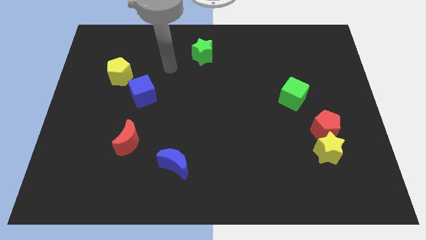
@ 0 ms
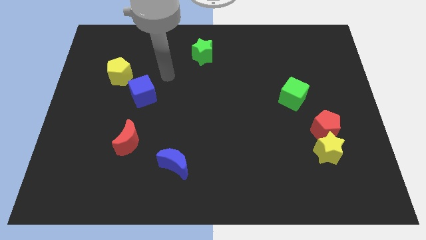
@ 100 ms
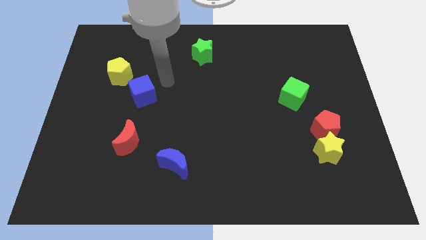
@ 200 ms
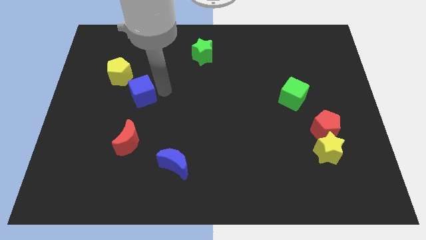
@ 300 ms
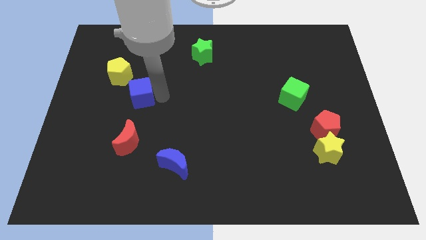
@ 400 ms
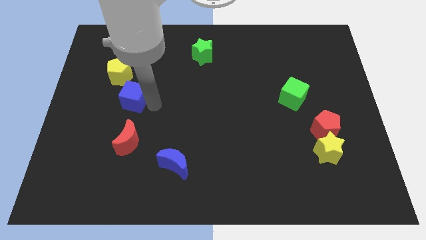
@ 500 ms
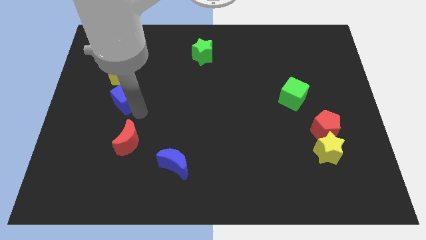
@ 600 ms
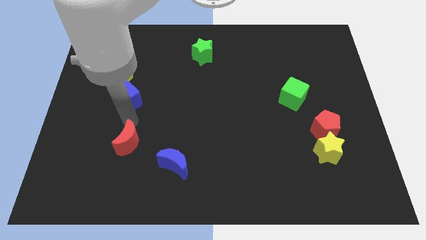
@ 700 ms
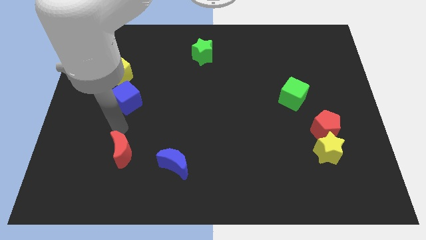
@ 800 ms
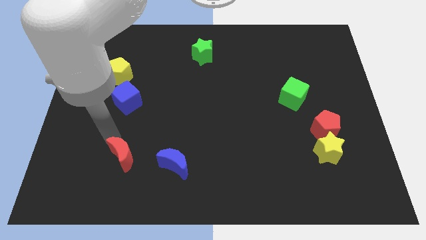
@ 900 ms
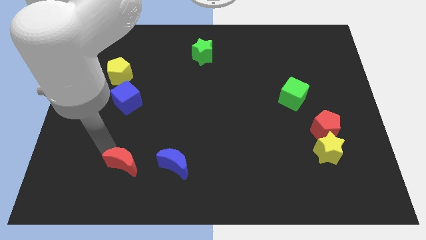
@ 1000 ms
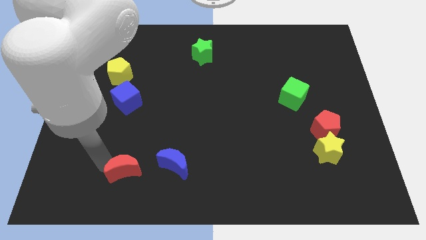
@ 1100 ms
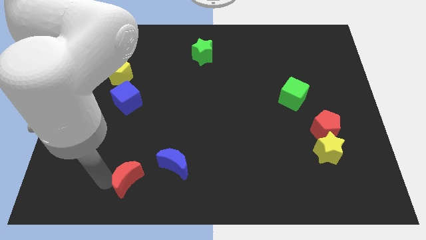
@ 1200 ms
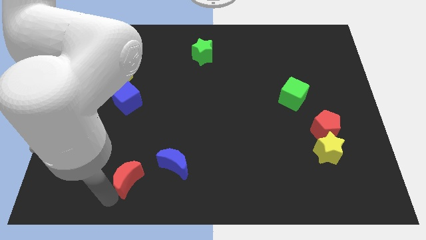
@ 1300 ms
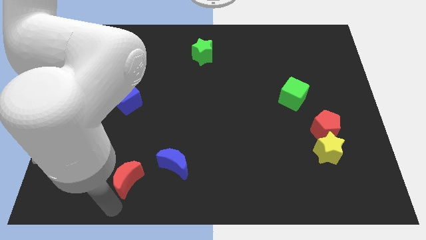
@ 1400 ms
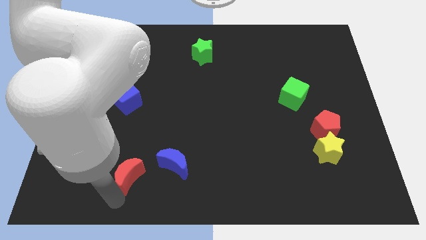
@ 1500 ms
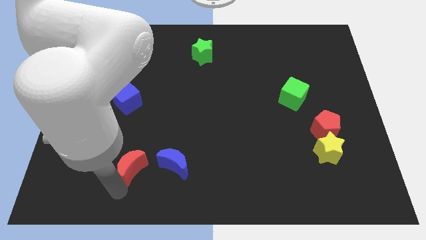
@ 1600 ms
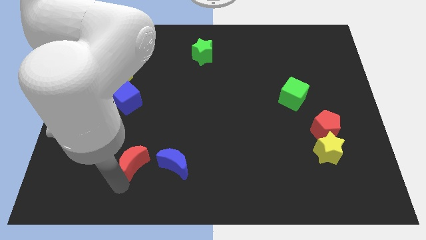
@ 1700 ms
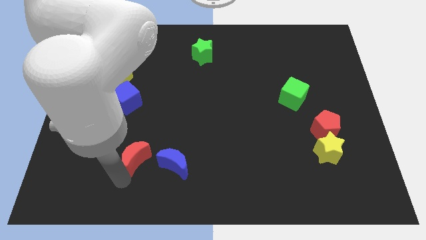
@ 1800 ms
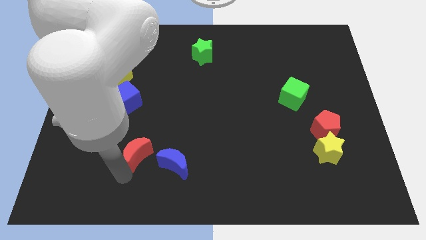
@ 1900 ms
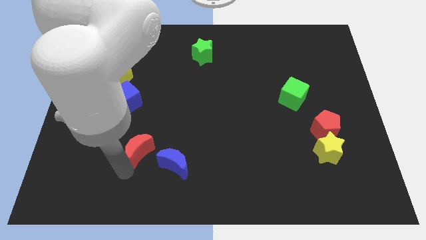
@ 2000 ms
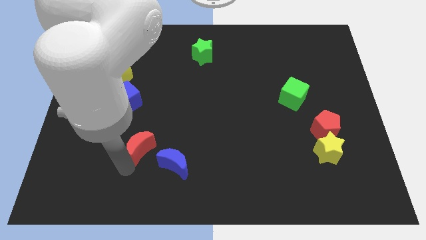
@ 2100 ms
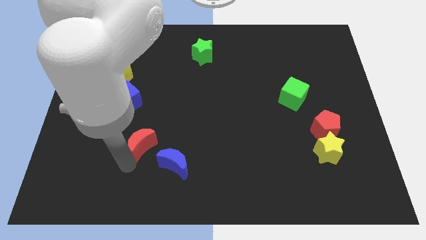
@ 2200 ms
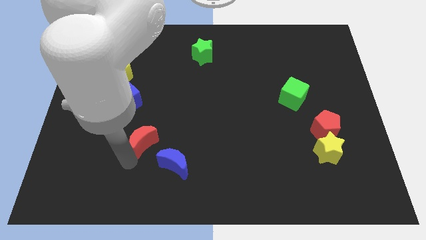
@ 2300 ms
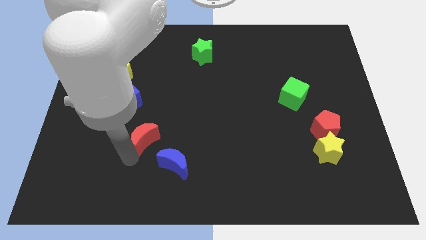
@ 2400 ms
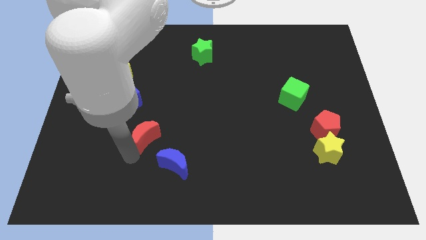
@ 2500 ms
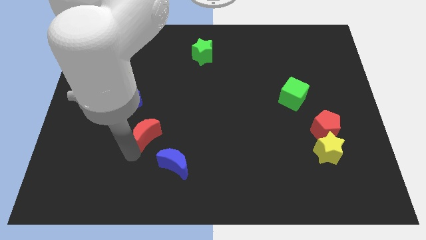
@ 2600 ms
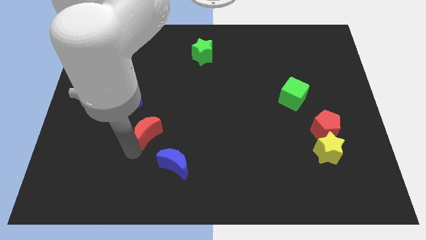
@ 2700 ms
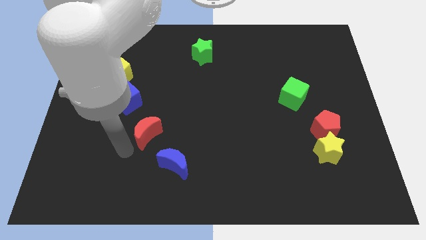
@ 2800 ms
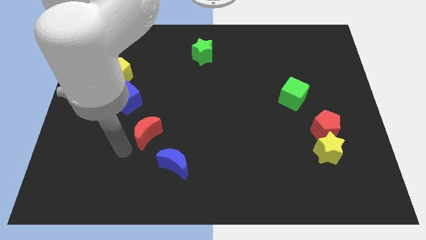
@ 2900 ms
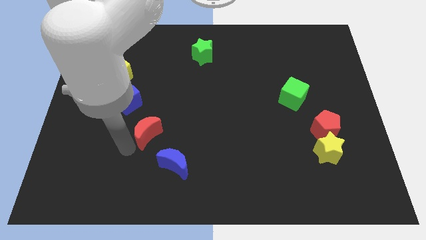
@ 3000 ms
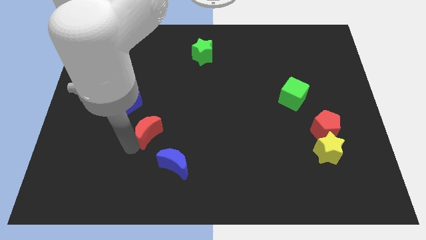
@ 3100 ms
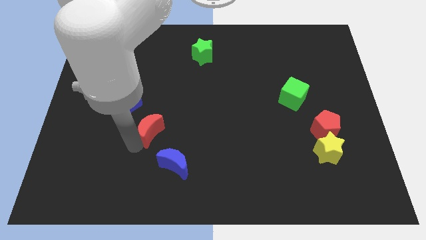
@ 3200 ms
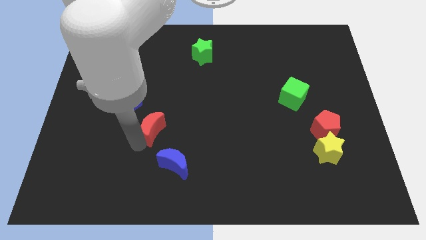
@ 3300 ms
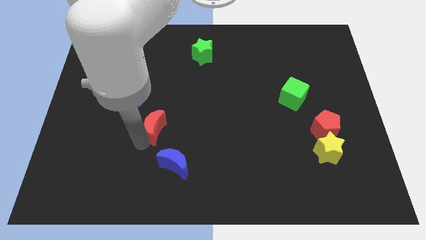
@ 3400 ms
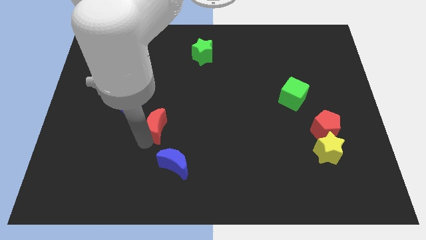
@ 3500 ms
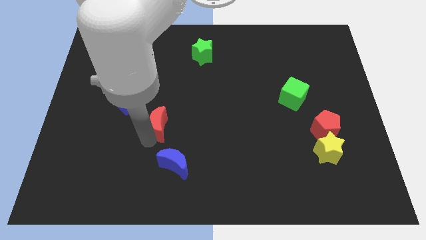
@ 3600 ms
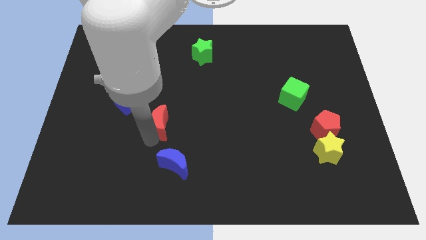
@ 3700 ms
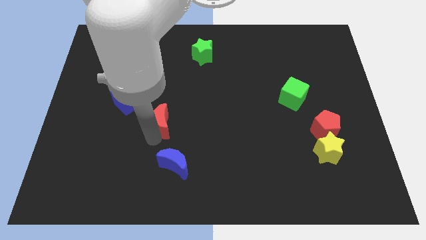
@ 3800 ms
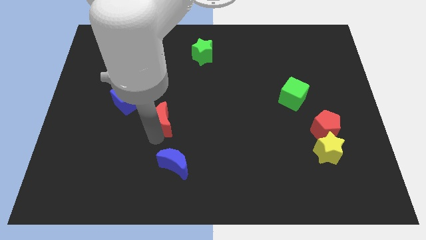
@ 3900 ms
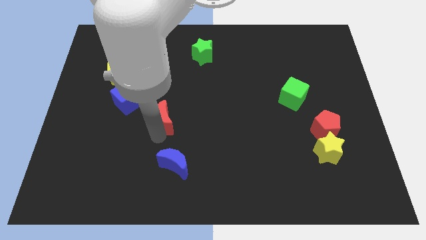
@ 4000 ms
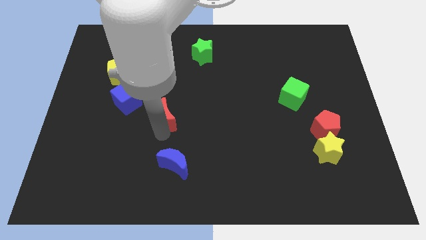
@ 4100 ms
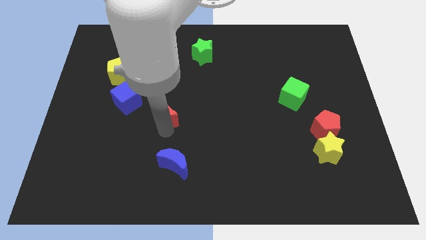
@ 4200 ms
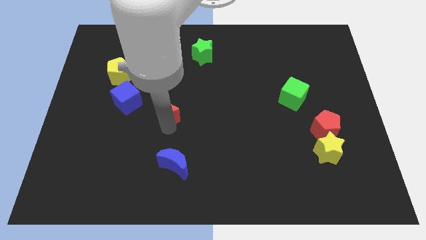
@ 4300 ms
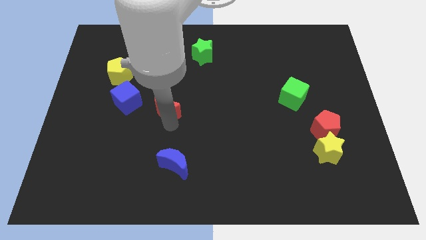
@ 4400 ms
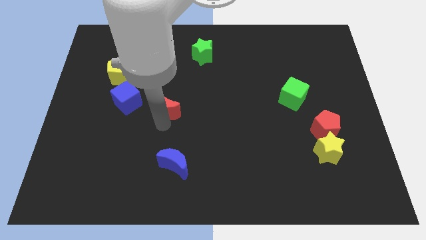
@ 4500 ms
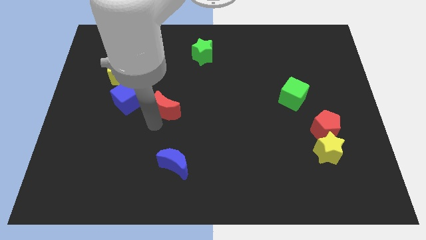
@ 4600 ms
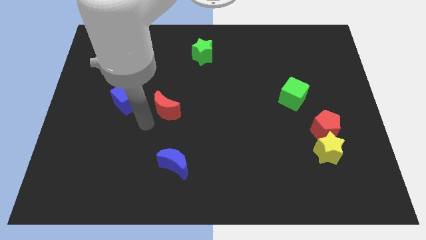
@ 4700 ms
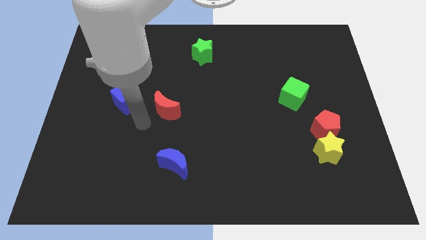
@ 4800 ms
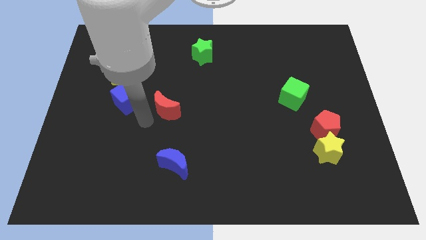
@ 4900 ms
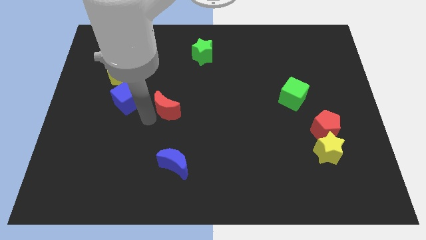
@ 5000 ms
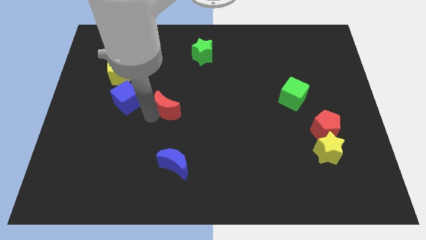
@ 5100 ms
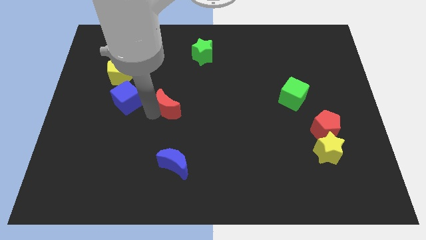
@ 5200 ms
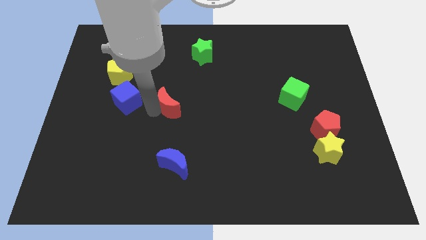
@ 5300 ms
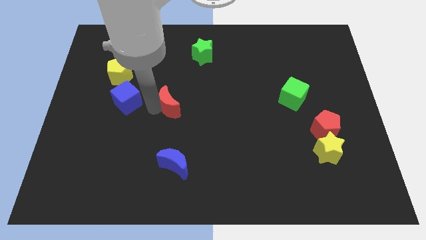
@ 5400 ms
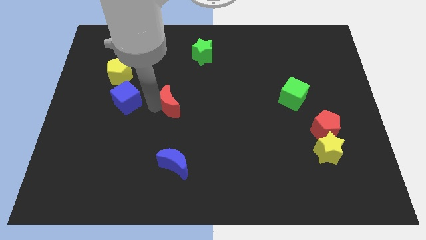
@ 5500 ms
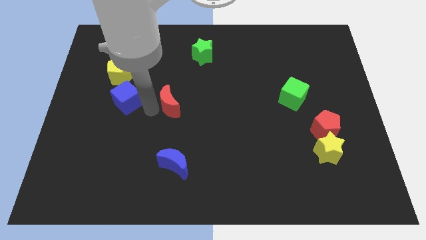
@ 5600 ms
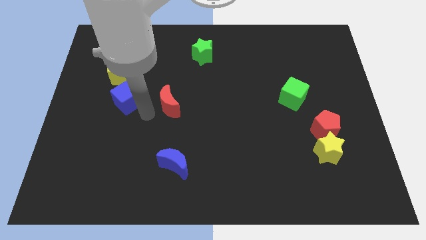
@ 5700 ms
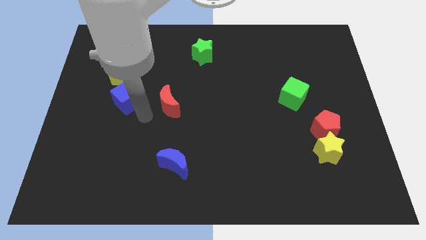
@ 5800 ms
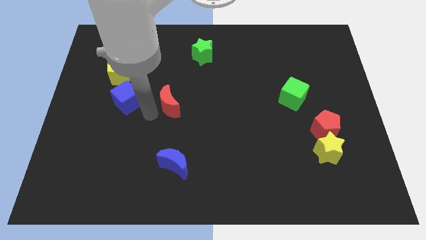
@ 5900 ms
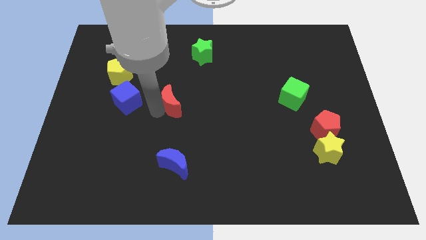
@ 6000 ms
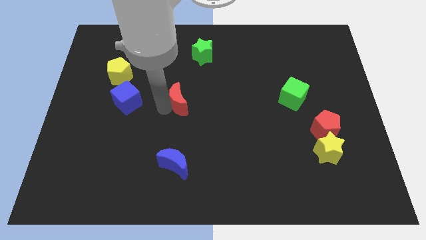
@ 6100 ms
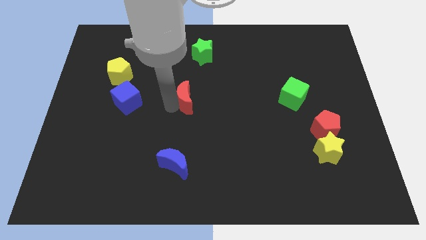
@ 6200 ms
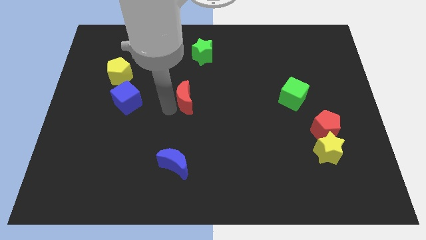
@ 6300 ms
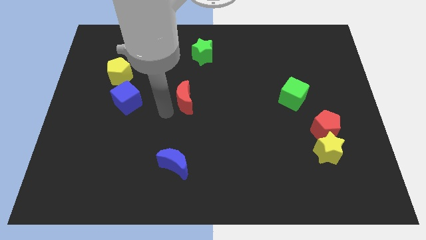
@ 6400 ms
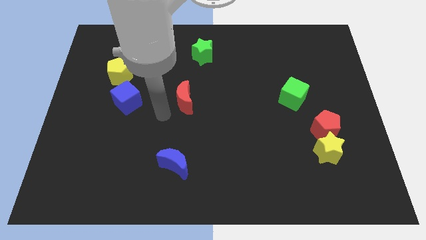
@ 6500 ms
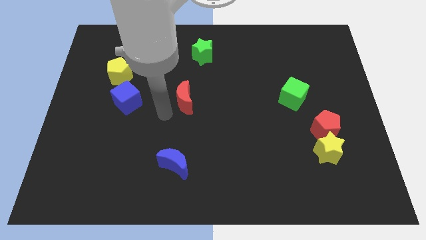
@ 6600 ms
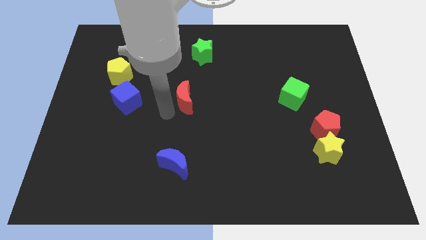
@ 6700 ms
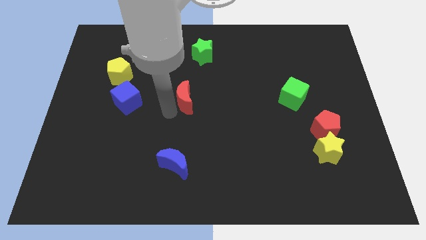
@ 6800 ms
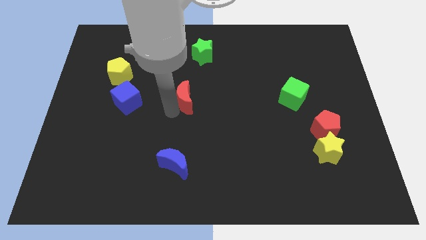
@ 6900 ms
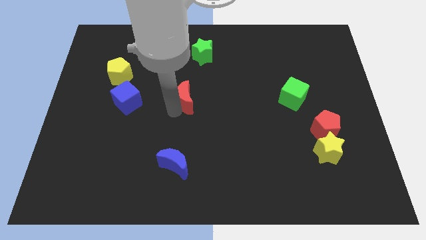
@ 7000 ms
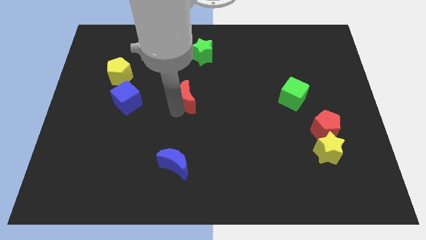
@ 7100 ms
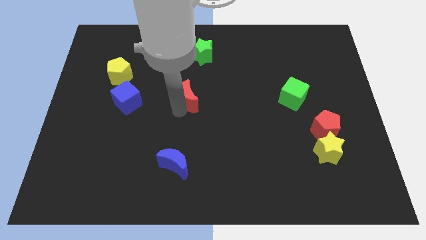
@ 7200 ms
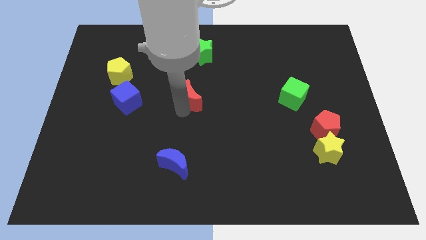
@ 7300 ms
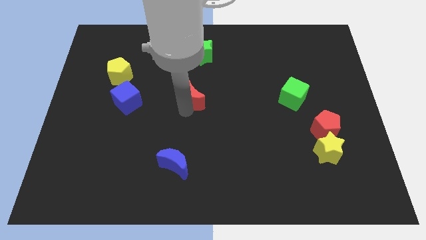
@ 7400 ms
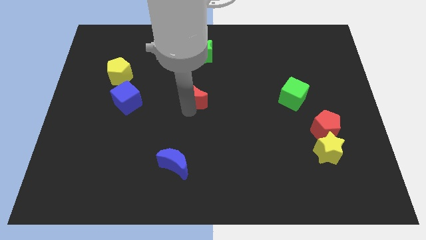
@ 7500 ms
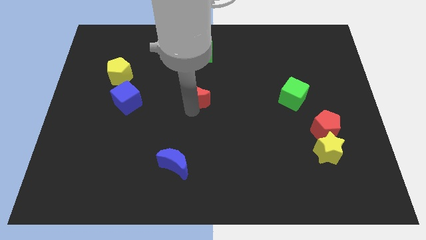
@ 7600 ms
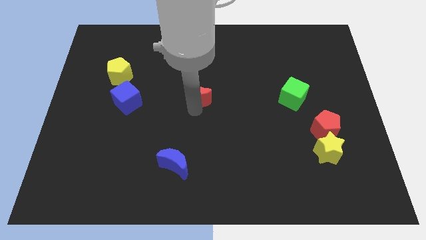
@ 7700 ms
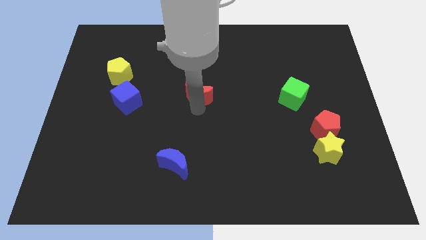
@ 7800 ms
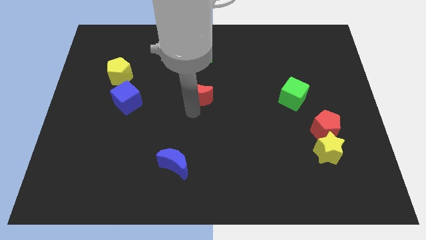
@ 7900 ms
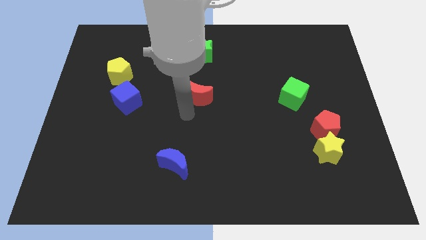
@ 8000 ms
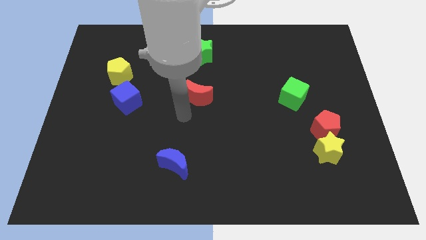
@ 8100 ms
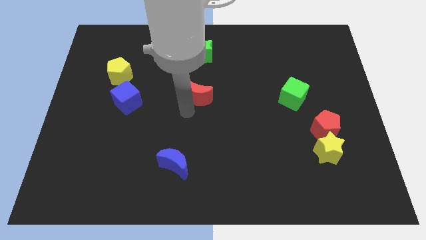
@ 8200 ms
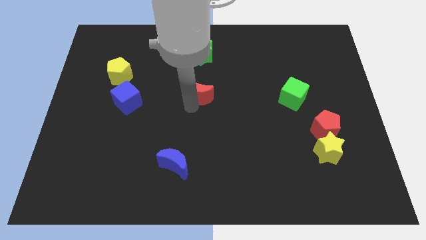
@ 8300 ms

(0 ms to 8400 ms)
move the red moon upwards and then to the right
